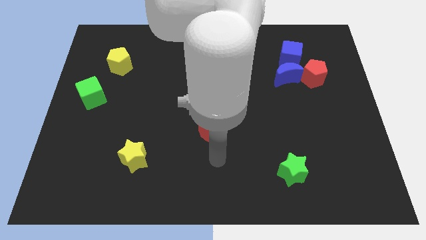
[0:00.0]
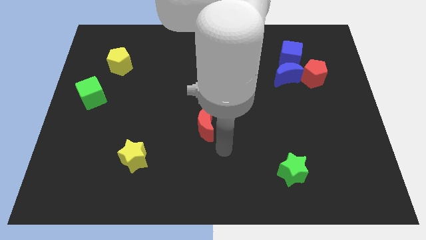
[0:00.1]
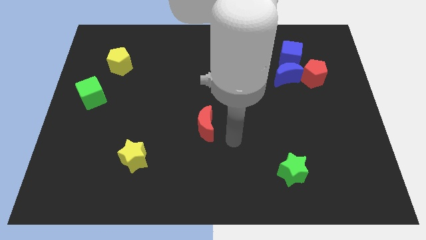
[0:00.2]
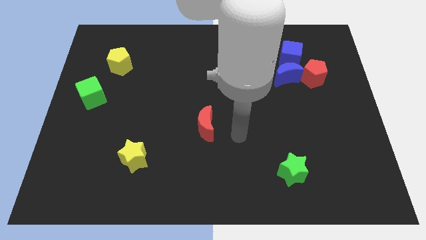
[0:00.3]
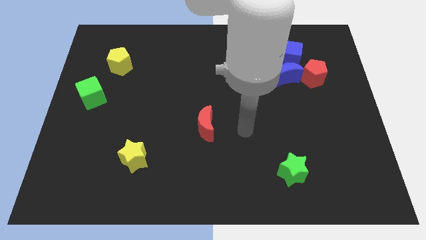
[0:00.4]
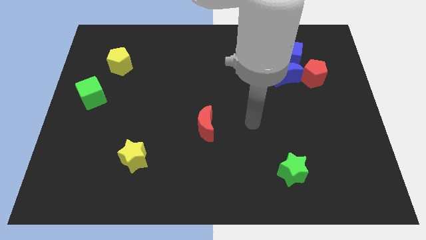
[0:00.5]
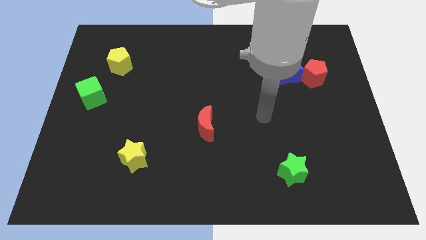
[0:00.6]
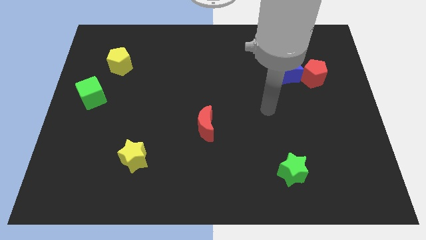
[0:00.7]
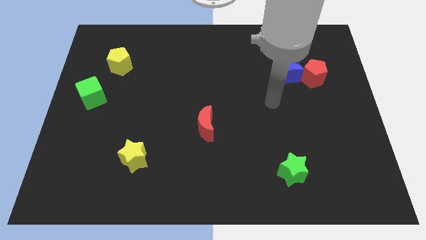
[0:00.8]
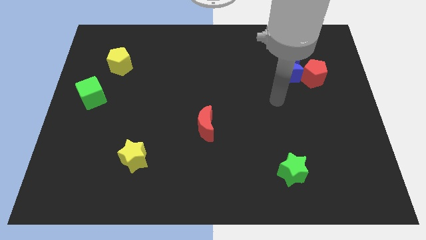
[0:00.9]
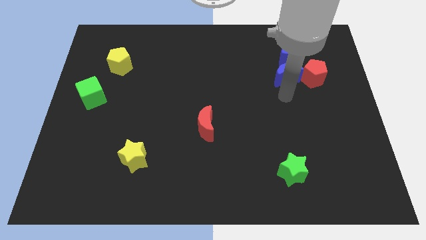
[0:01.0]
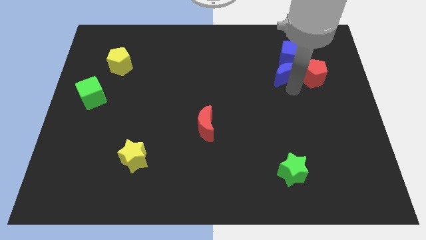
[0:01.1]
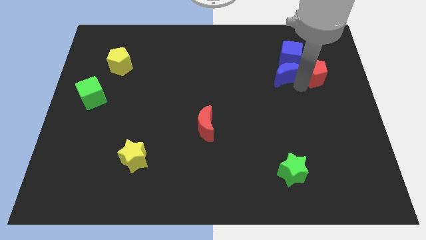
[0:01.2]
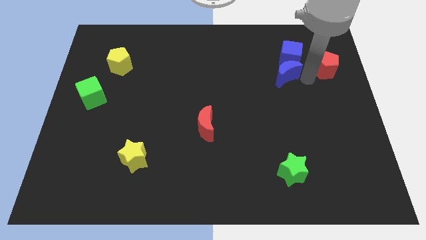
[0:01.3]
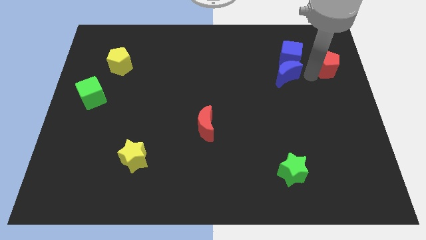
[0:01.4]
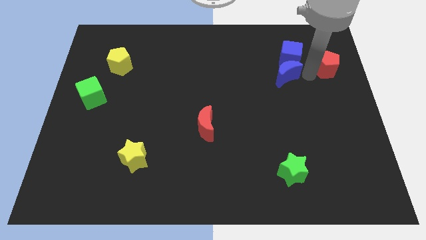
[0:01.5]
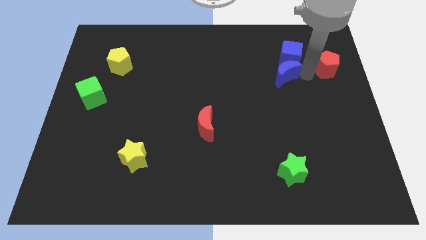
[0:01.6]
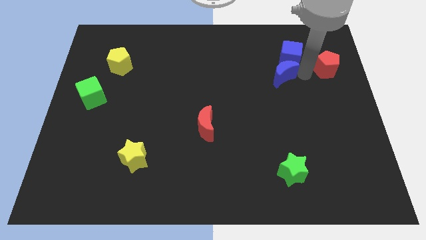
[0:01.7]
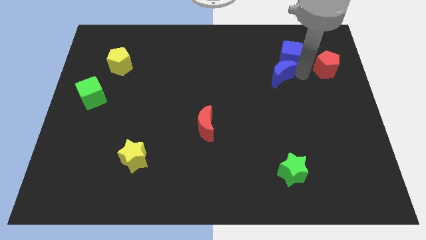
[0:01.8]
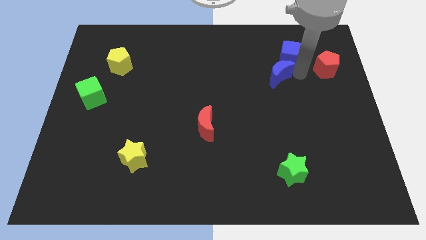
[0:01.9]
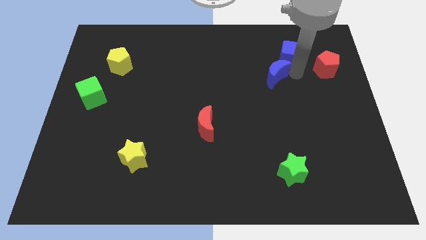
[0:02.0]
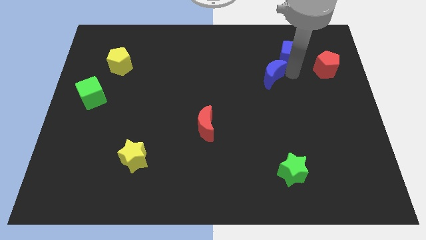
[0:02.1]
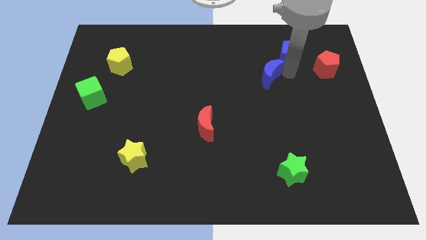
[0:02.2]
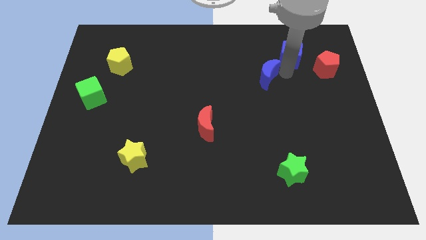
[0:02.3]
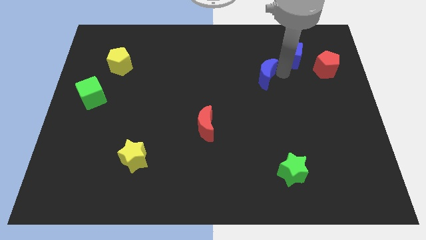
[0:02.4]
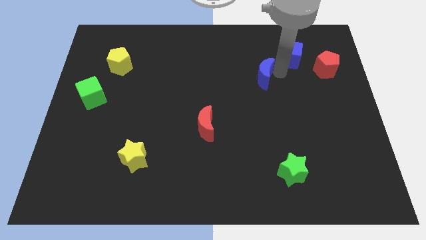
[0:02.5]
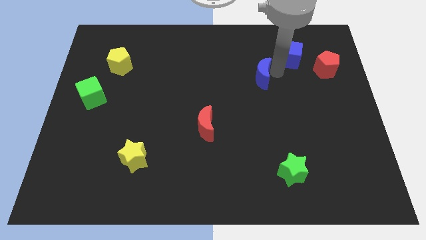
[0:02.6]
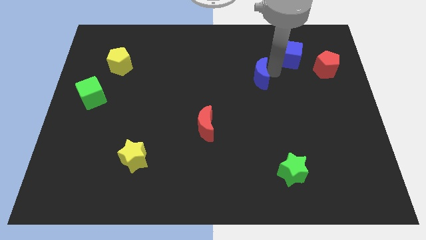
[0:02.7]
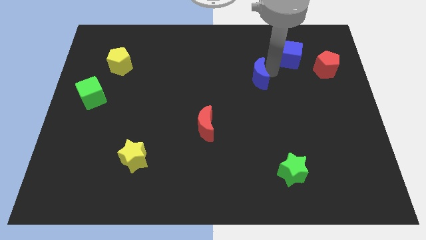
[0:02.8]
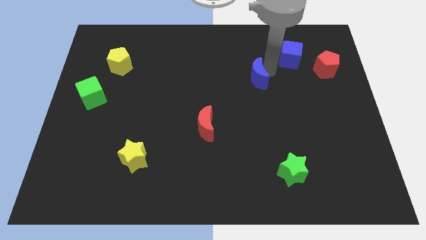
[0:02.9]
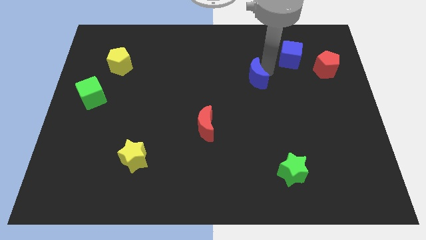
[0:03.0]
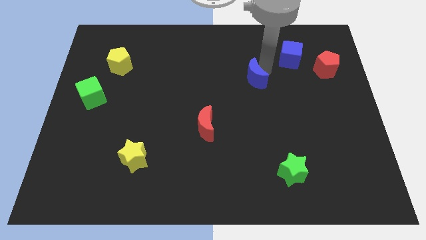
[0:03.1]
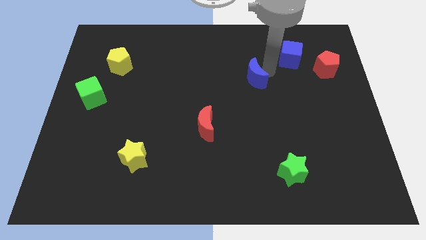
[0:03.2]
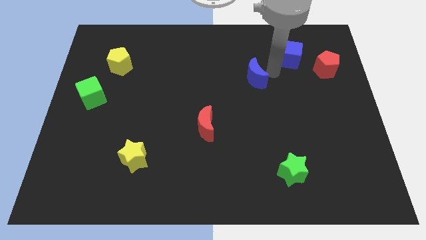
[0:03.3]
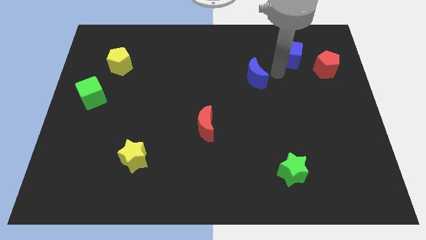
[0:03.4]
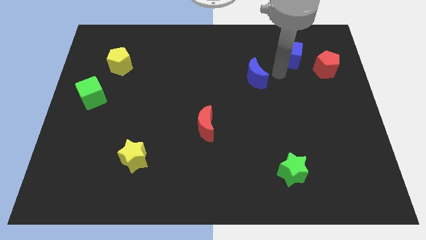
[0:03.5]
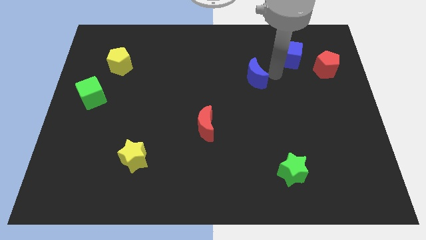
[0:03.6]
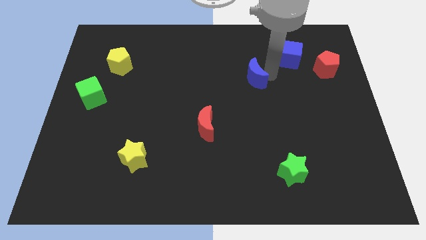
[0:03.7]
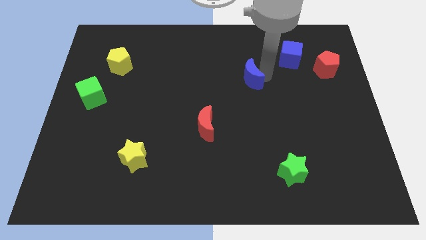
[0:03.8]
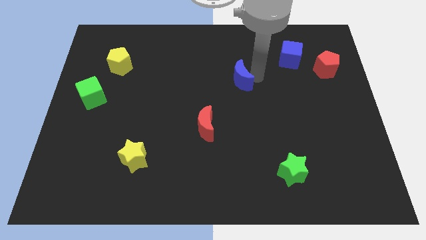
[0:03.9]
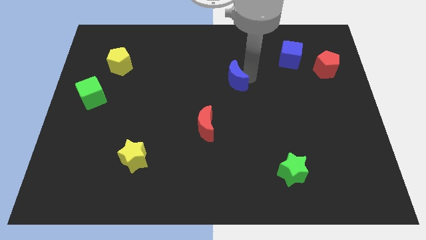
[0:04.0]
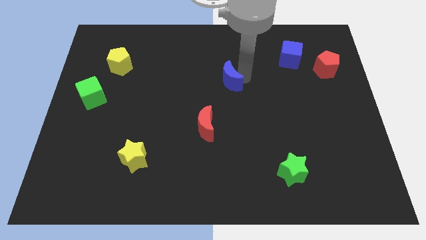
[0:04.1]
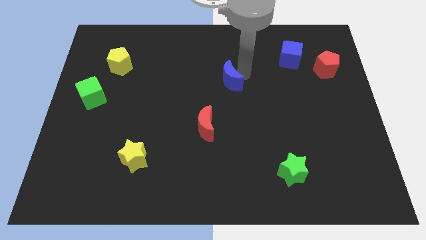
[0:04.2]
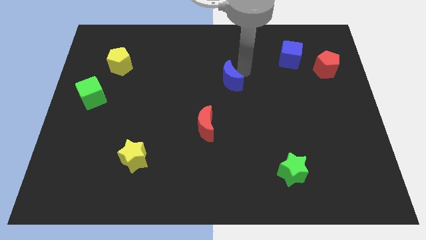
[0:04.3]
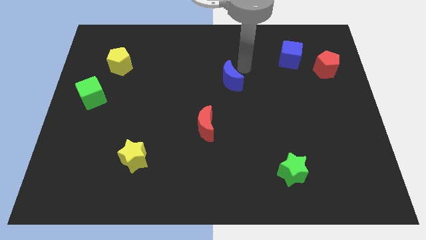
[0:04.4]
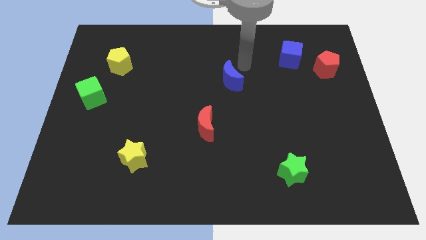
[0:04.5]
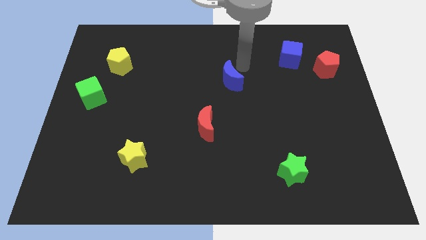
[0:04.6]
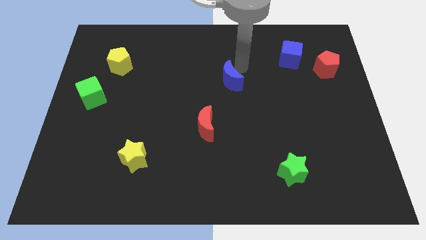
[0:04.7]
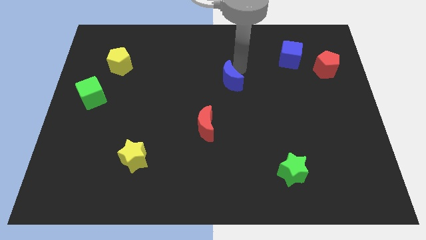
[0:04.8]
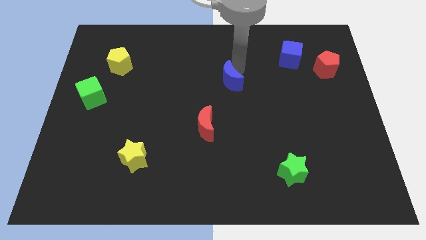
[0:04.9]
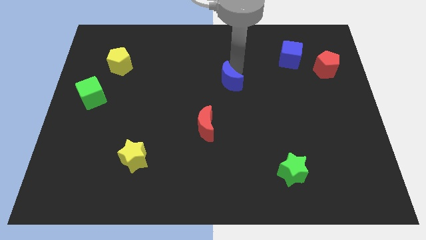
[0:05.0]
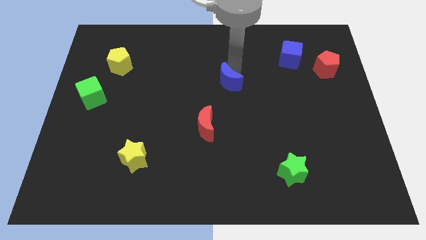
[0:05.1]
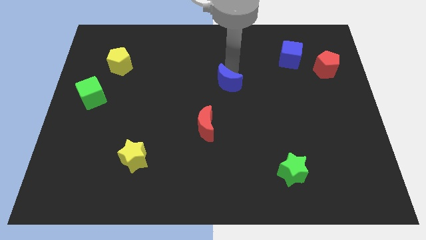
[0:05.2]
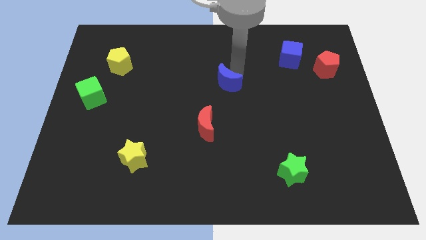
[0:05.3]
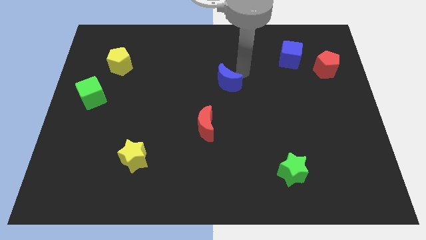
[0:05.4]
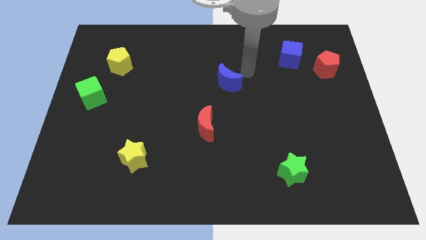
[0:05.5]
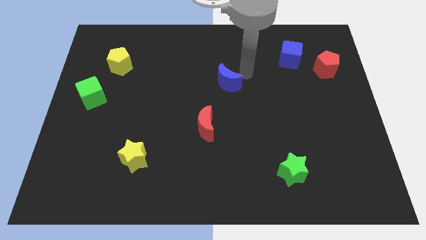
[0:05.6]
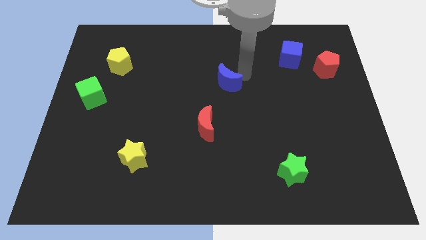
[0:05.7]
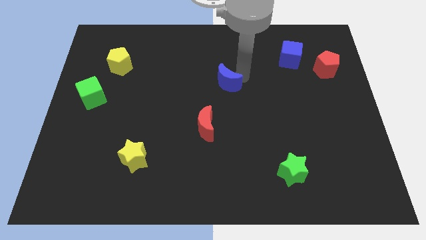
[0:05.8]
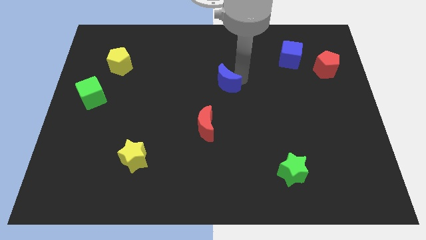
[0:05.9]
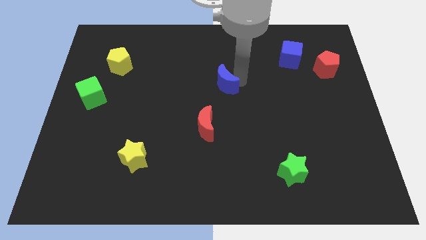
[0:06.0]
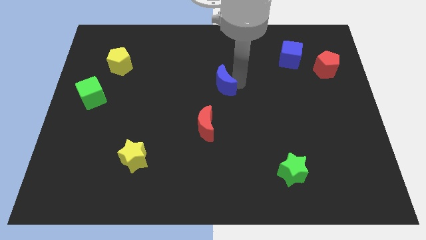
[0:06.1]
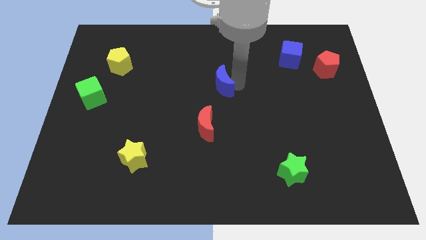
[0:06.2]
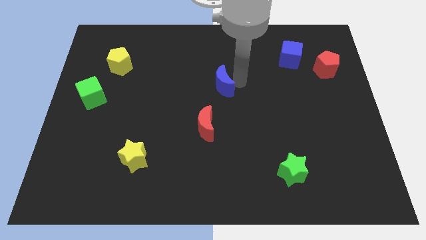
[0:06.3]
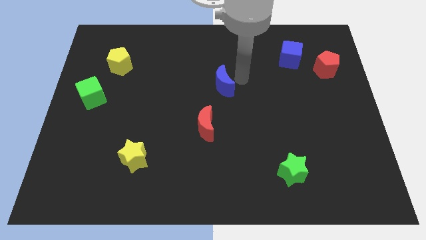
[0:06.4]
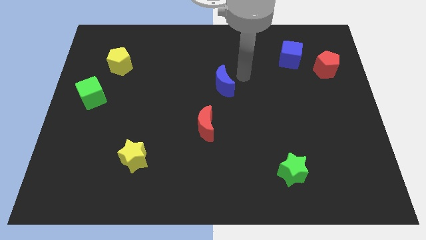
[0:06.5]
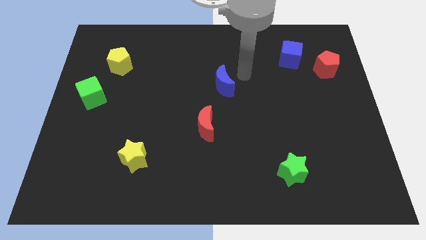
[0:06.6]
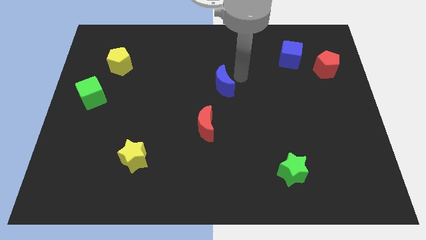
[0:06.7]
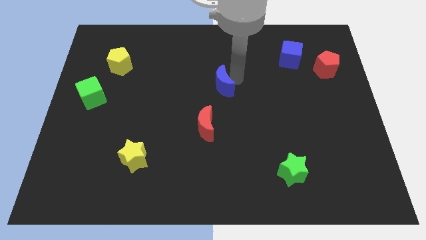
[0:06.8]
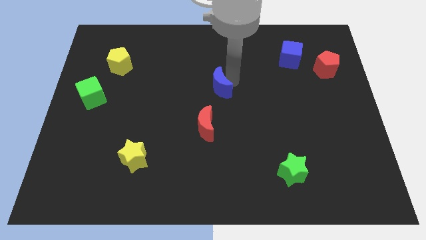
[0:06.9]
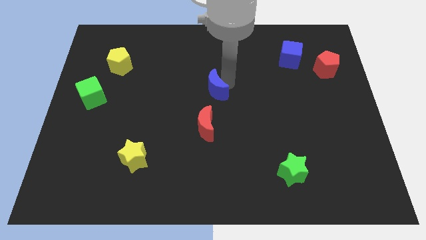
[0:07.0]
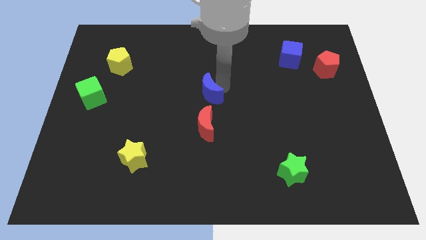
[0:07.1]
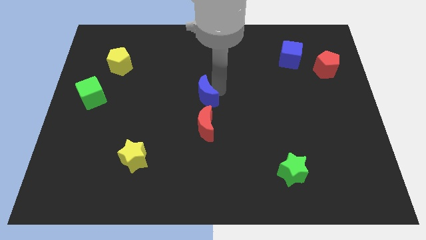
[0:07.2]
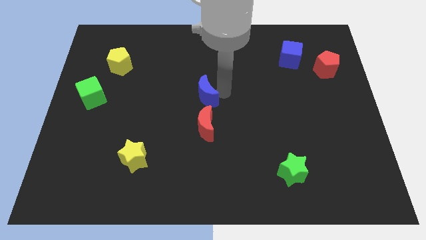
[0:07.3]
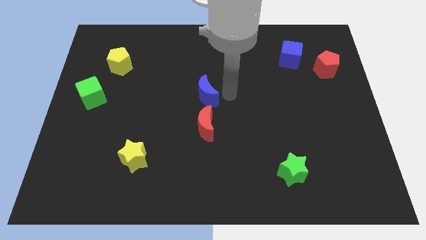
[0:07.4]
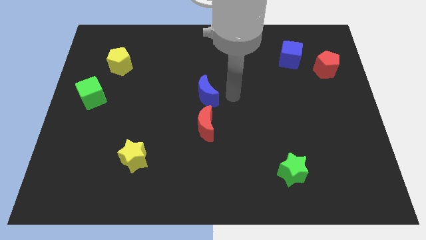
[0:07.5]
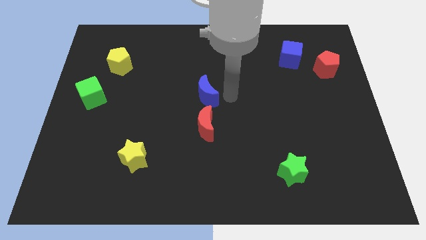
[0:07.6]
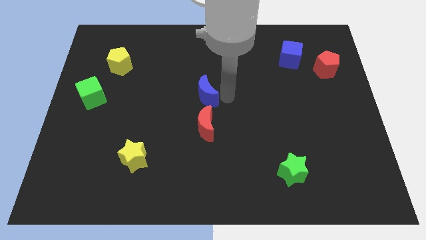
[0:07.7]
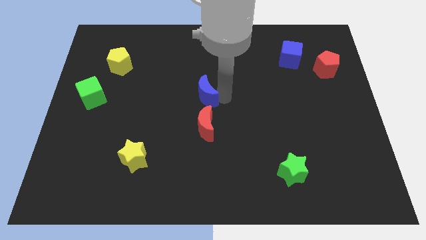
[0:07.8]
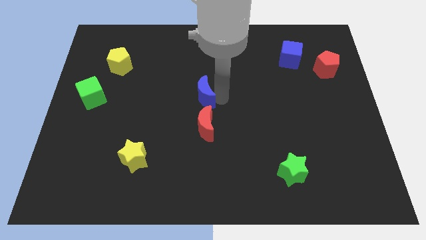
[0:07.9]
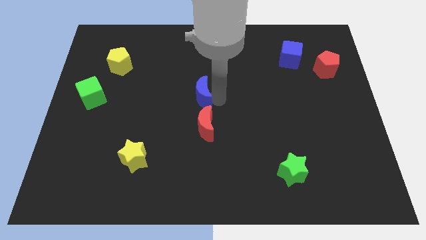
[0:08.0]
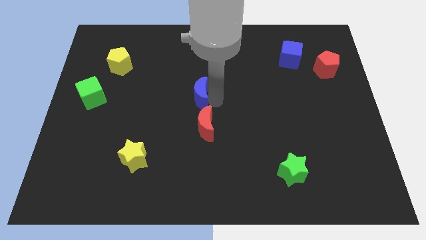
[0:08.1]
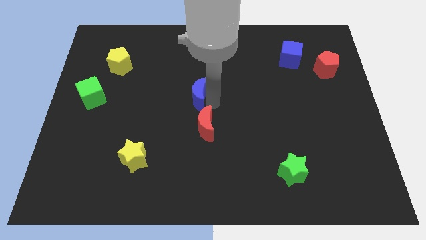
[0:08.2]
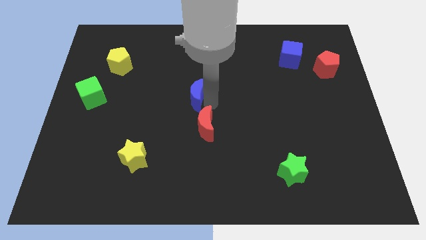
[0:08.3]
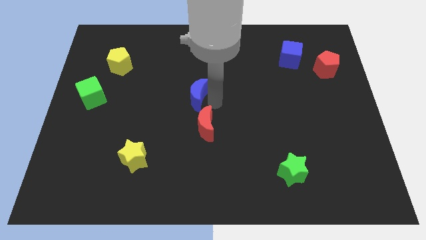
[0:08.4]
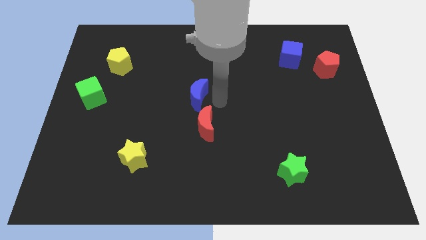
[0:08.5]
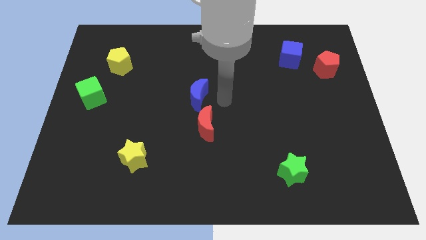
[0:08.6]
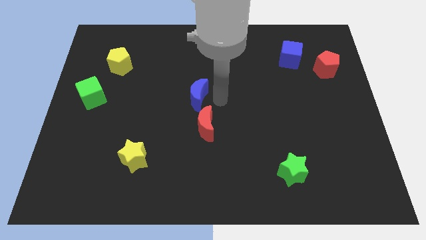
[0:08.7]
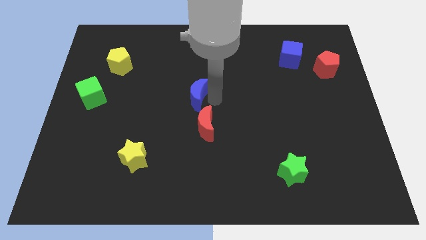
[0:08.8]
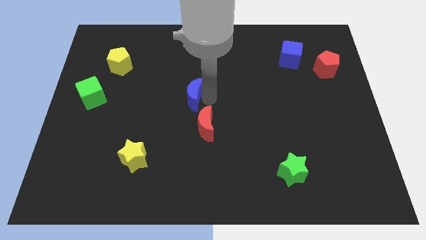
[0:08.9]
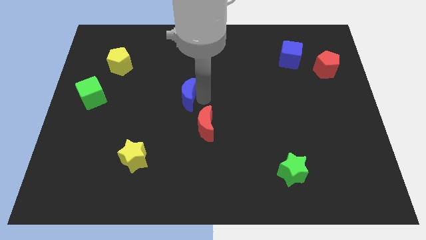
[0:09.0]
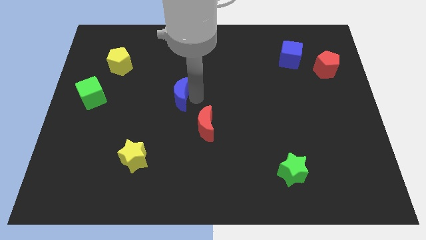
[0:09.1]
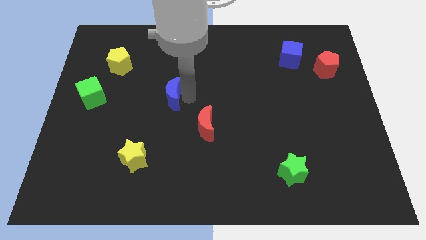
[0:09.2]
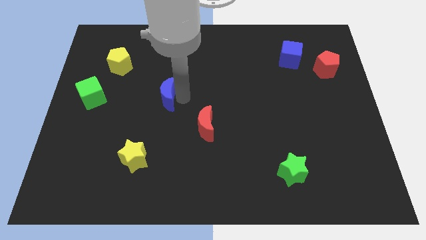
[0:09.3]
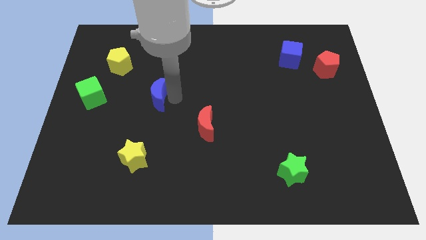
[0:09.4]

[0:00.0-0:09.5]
put the blue moon to the right of the green cube
